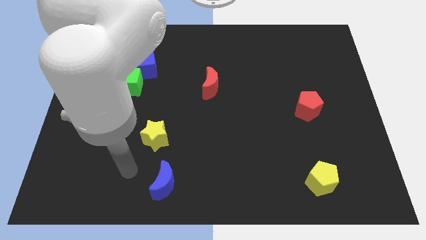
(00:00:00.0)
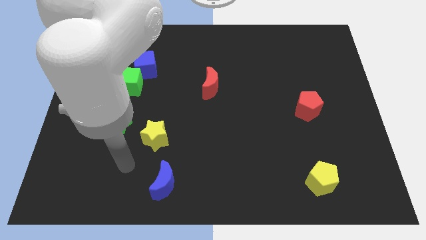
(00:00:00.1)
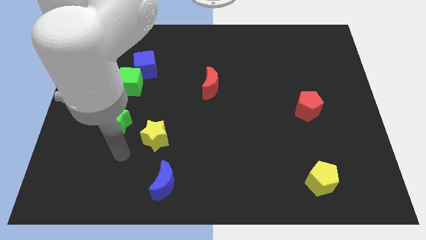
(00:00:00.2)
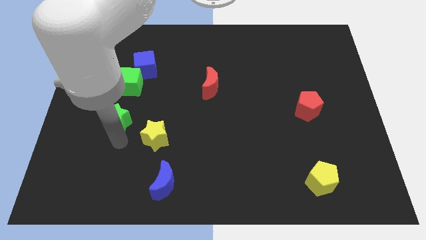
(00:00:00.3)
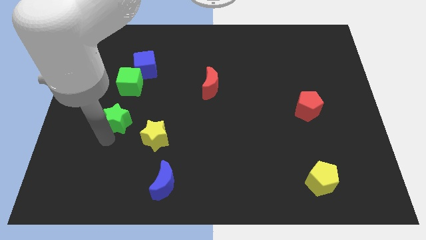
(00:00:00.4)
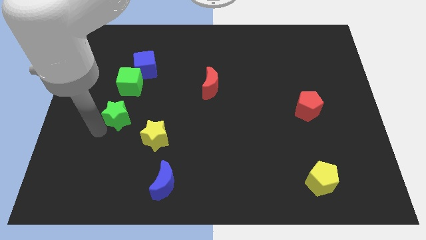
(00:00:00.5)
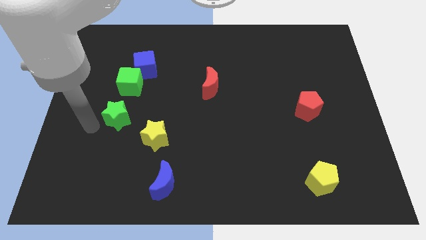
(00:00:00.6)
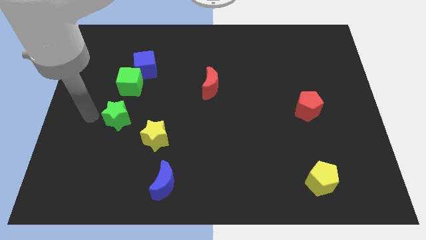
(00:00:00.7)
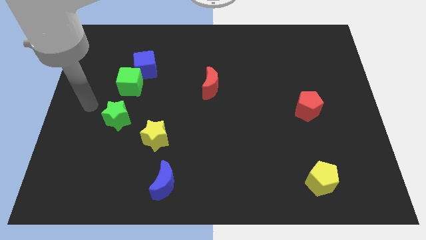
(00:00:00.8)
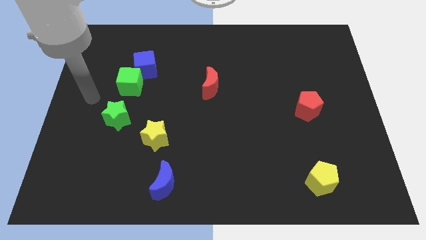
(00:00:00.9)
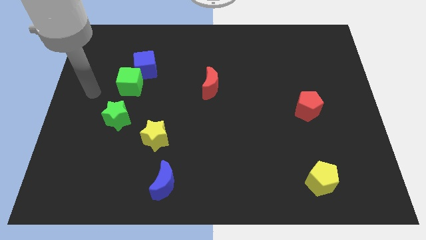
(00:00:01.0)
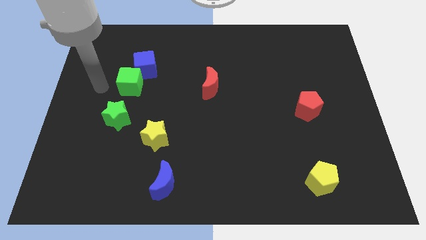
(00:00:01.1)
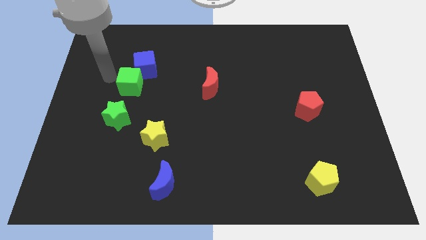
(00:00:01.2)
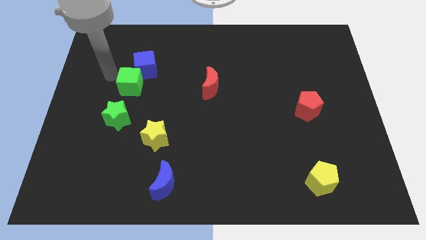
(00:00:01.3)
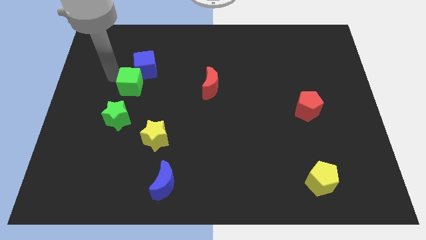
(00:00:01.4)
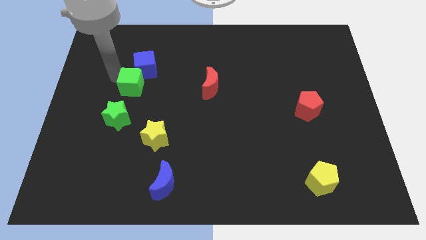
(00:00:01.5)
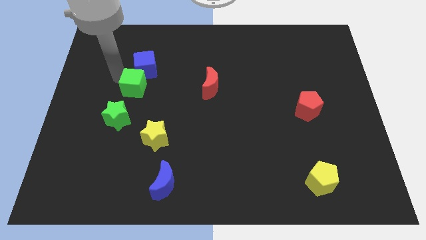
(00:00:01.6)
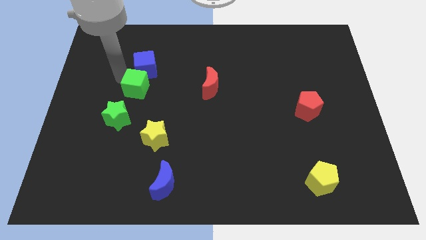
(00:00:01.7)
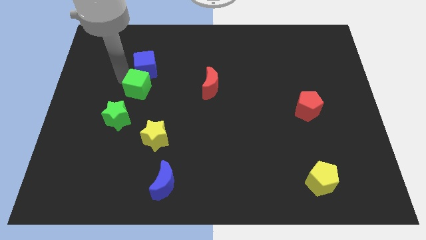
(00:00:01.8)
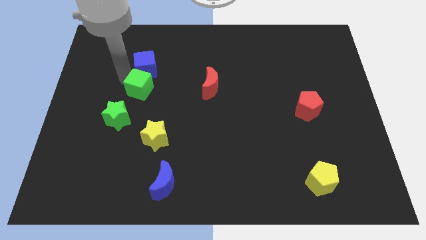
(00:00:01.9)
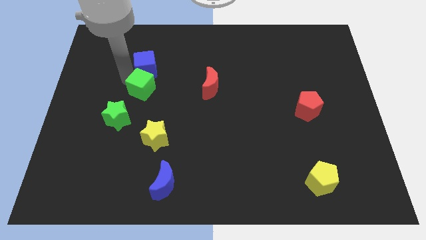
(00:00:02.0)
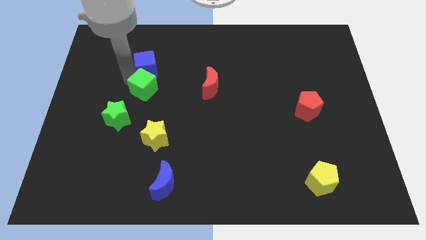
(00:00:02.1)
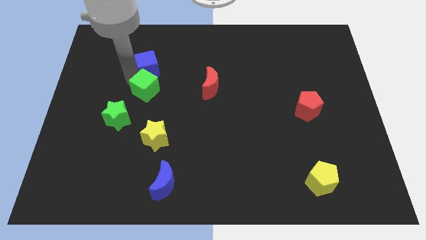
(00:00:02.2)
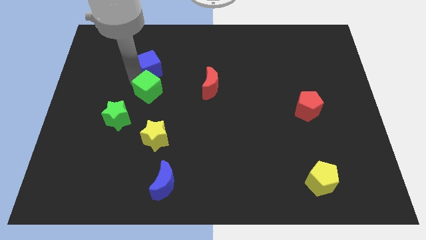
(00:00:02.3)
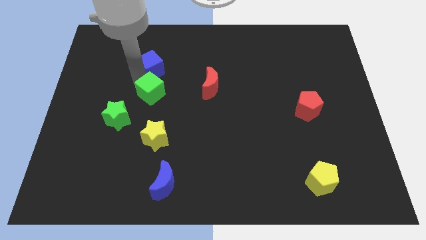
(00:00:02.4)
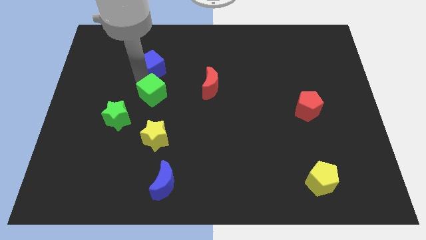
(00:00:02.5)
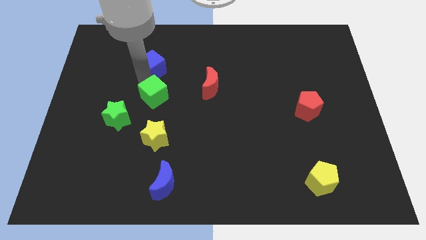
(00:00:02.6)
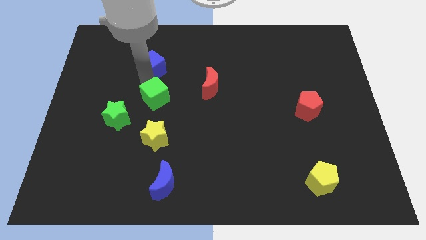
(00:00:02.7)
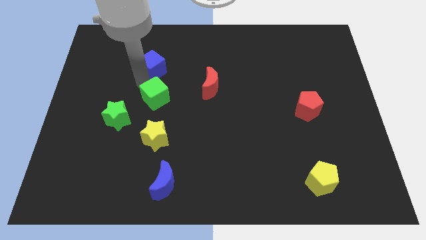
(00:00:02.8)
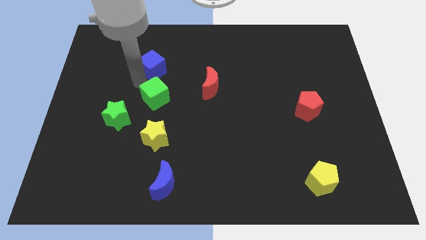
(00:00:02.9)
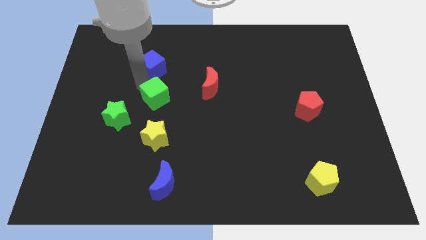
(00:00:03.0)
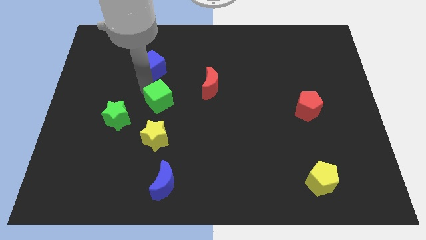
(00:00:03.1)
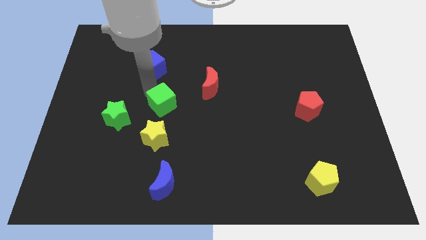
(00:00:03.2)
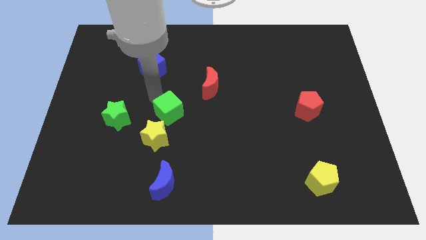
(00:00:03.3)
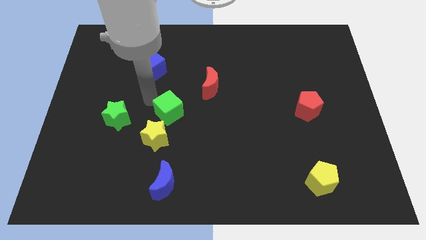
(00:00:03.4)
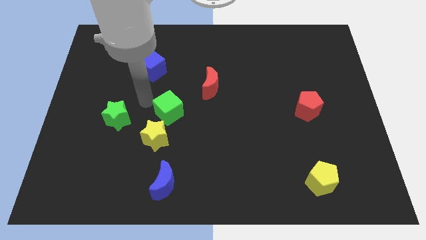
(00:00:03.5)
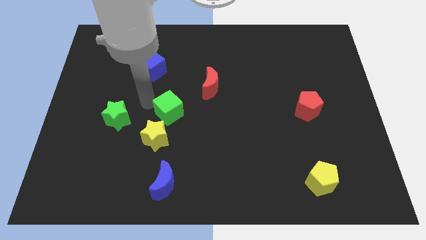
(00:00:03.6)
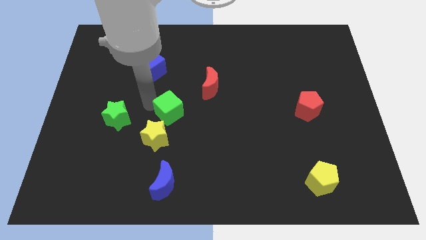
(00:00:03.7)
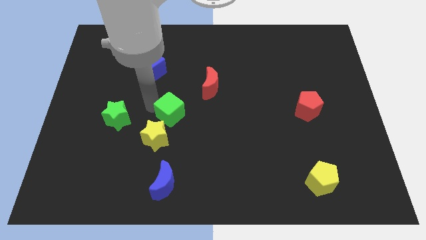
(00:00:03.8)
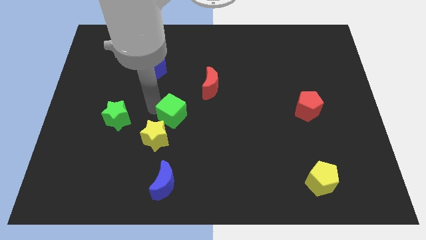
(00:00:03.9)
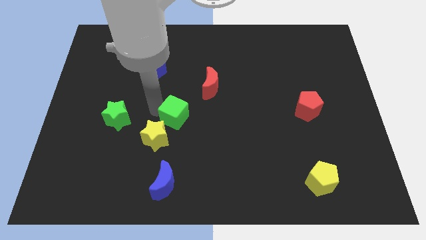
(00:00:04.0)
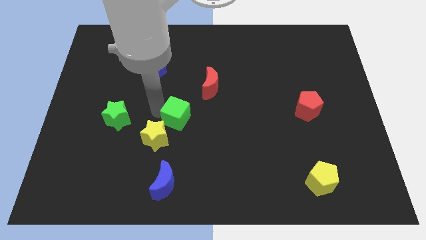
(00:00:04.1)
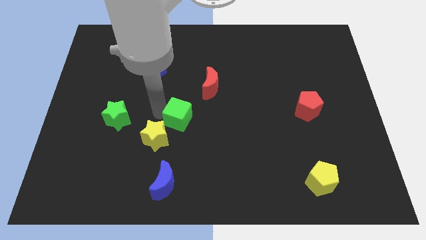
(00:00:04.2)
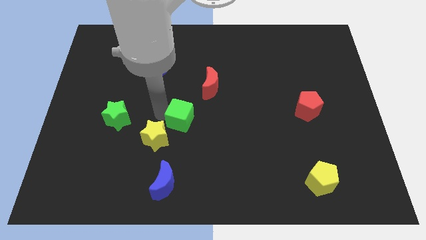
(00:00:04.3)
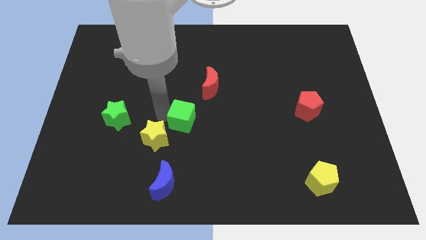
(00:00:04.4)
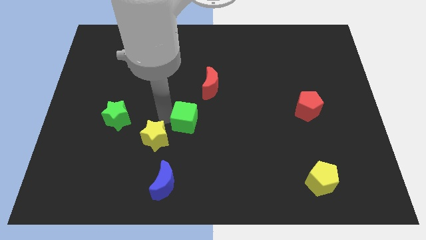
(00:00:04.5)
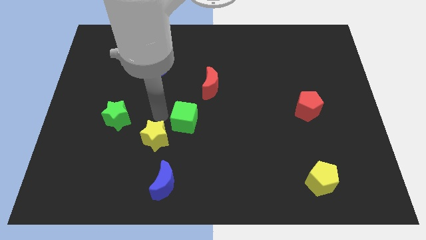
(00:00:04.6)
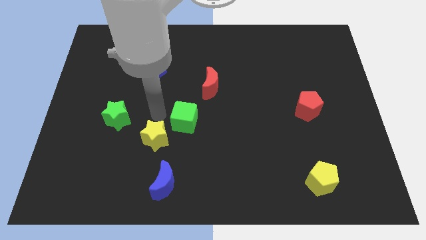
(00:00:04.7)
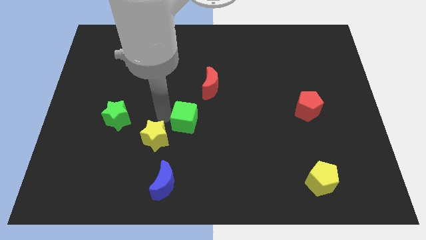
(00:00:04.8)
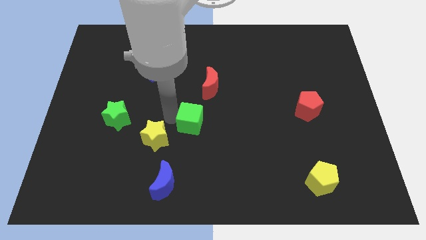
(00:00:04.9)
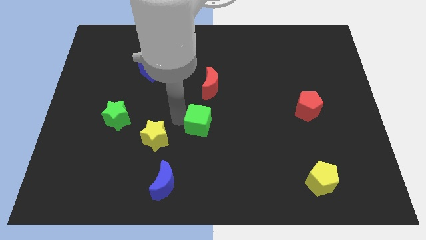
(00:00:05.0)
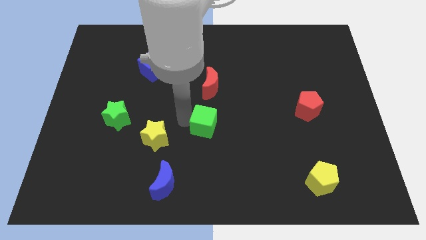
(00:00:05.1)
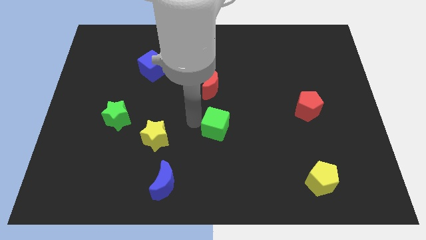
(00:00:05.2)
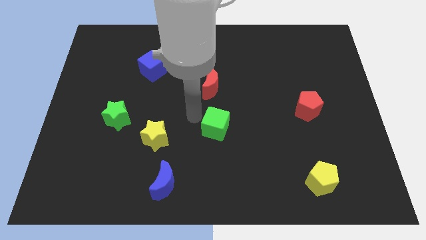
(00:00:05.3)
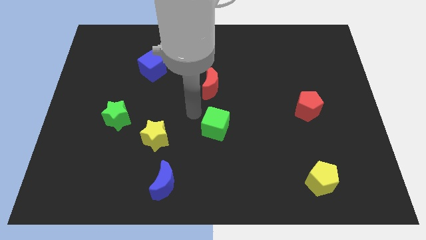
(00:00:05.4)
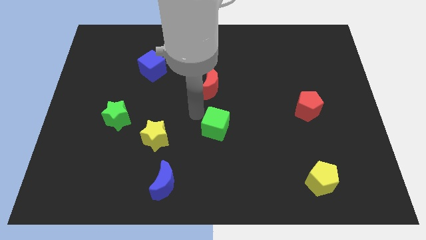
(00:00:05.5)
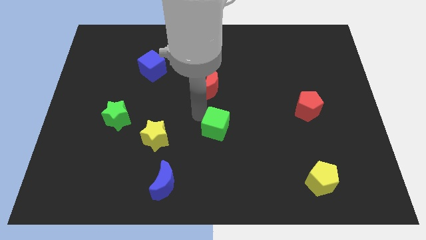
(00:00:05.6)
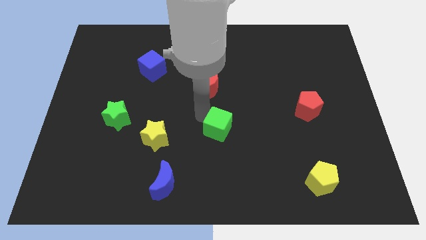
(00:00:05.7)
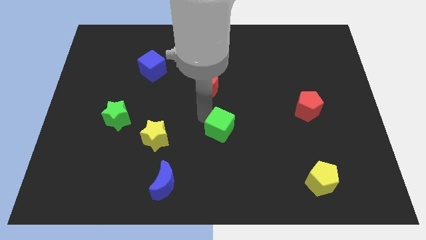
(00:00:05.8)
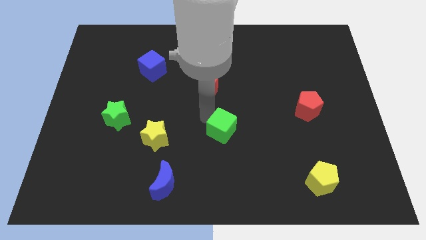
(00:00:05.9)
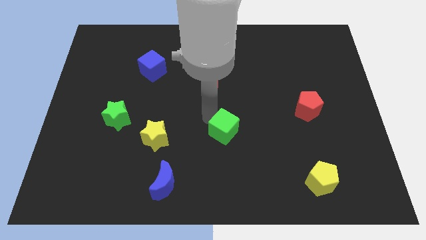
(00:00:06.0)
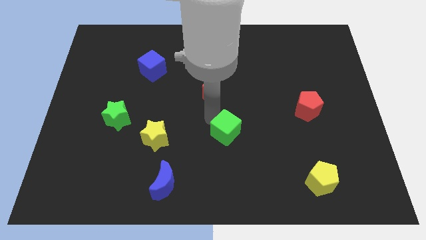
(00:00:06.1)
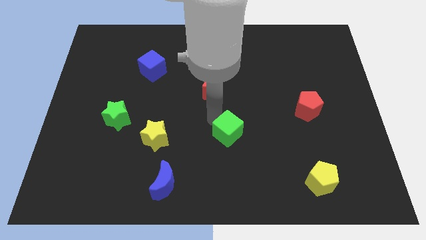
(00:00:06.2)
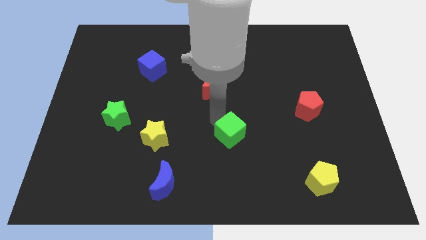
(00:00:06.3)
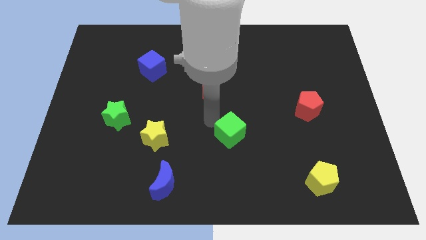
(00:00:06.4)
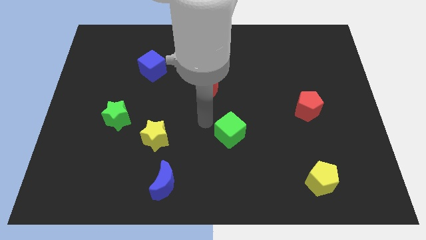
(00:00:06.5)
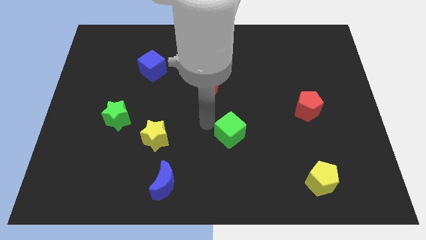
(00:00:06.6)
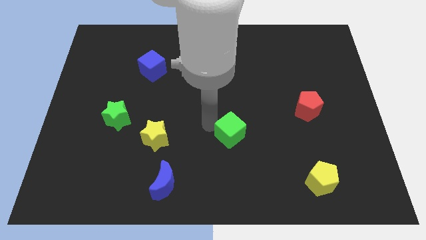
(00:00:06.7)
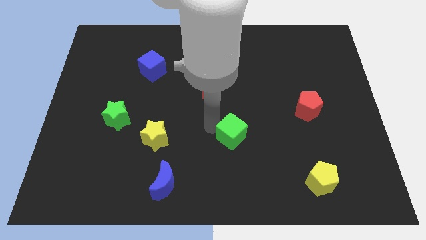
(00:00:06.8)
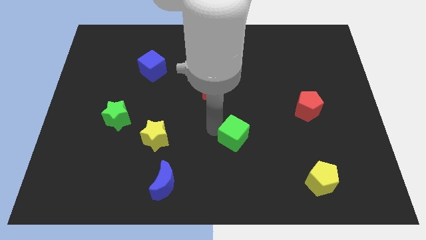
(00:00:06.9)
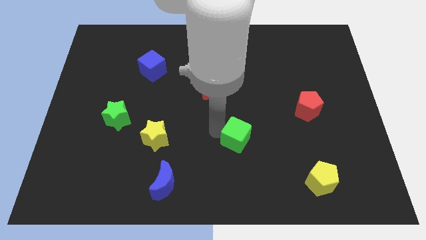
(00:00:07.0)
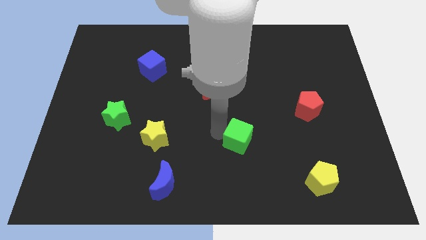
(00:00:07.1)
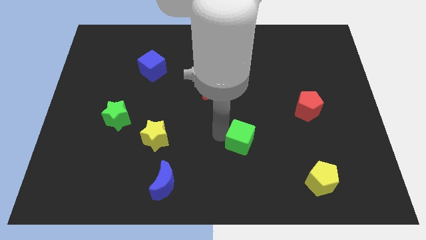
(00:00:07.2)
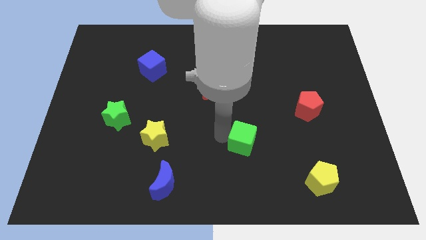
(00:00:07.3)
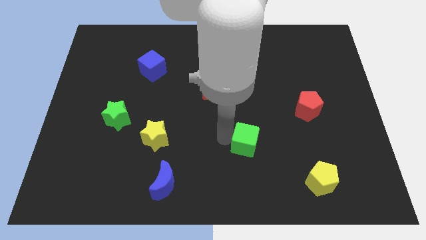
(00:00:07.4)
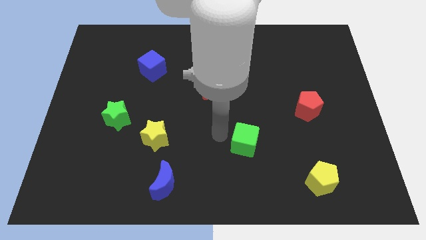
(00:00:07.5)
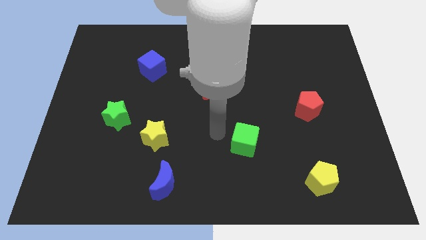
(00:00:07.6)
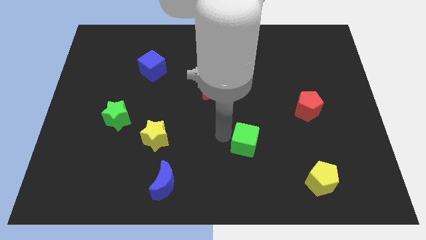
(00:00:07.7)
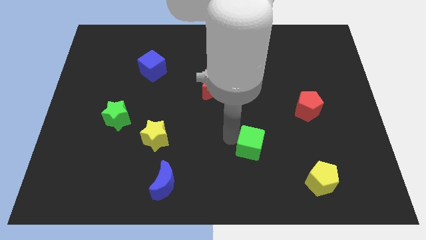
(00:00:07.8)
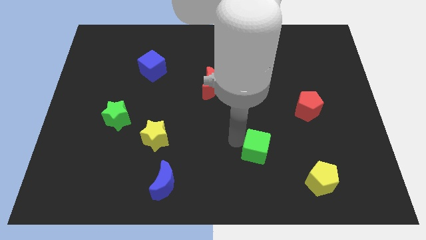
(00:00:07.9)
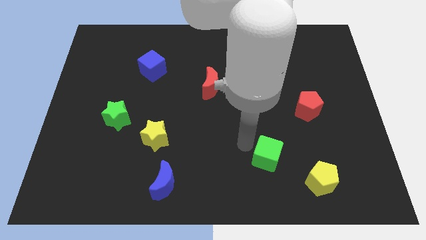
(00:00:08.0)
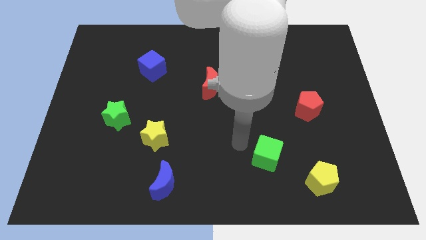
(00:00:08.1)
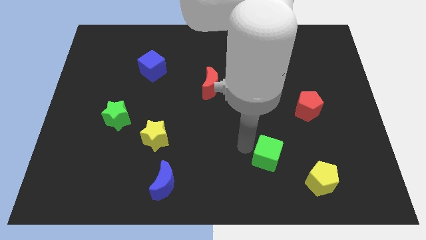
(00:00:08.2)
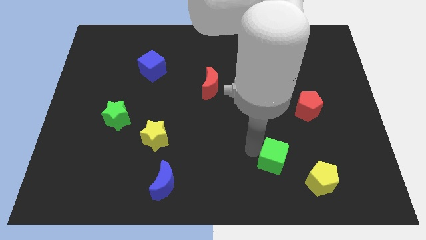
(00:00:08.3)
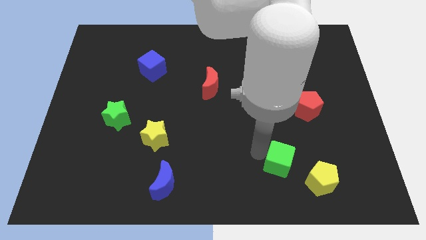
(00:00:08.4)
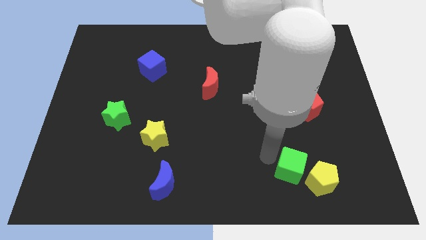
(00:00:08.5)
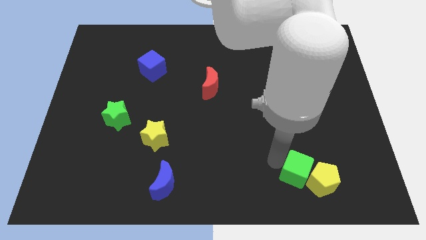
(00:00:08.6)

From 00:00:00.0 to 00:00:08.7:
push the green cube towards the yellow pentagon
